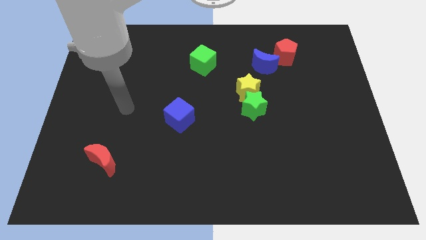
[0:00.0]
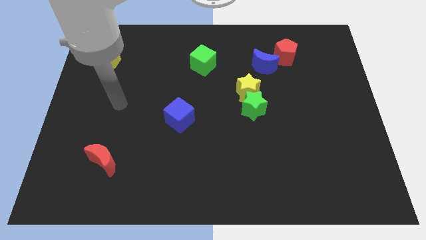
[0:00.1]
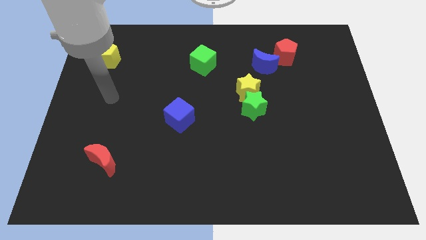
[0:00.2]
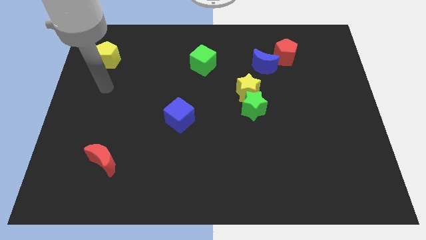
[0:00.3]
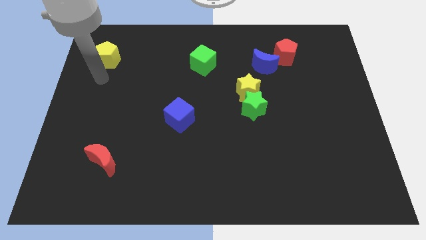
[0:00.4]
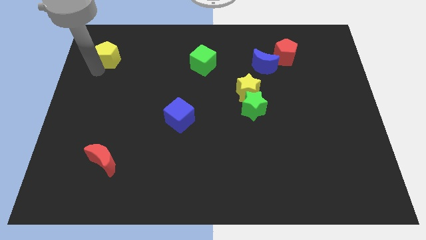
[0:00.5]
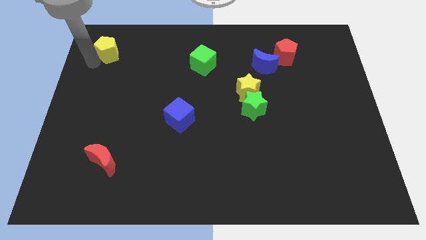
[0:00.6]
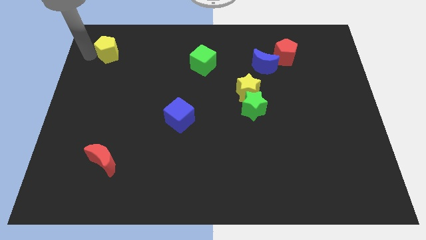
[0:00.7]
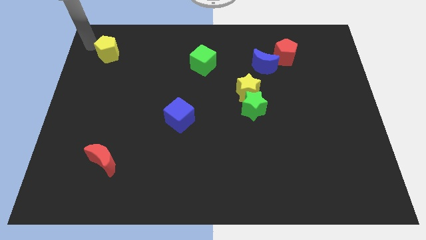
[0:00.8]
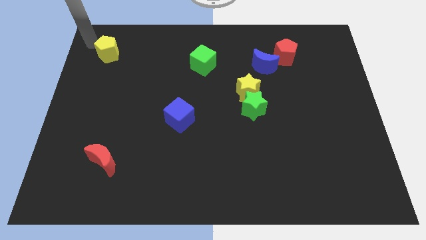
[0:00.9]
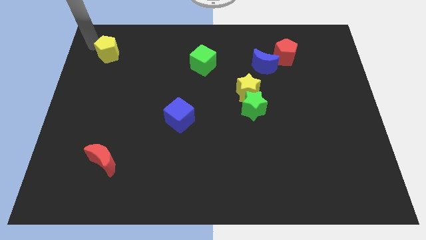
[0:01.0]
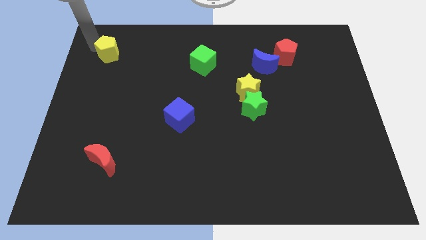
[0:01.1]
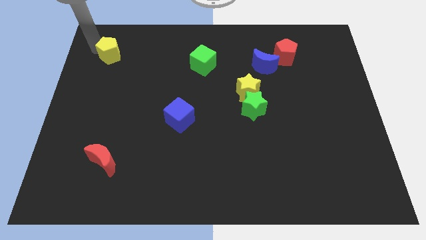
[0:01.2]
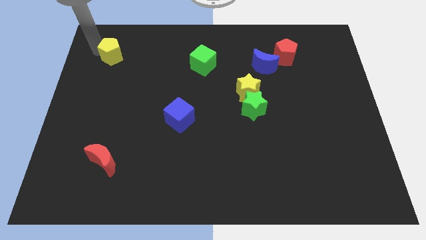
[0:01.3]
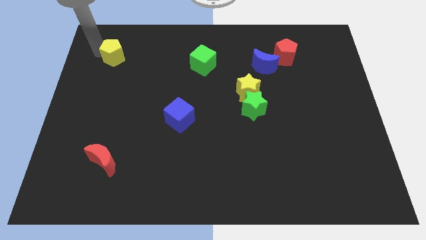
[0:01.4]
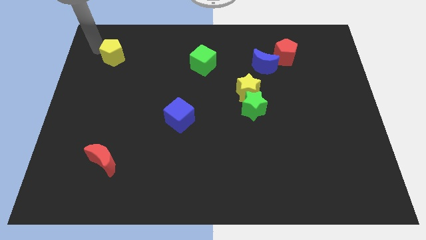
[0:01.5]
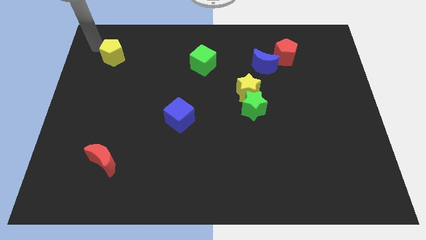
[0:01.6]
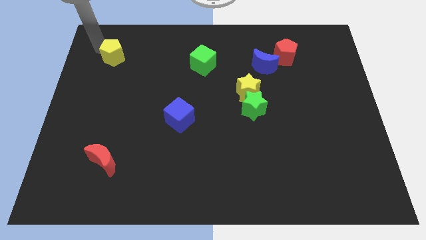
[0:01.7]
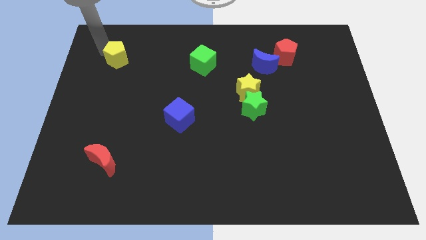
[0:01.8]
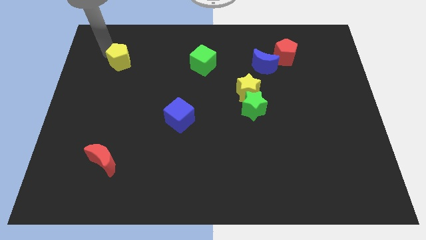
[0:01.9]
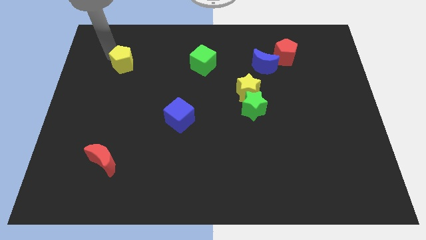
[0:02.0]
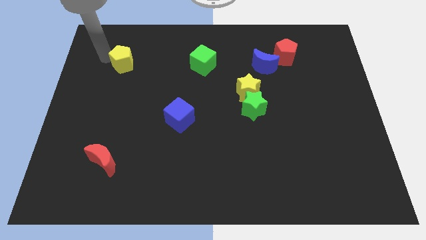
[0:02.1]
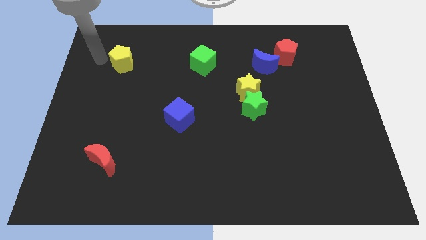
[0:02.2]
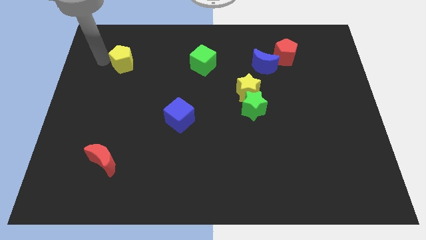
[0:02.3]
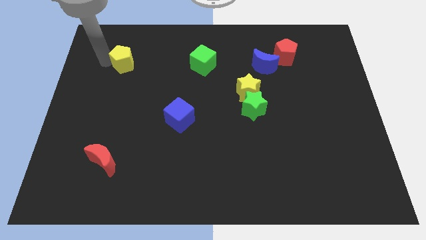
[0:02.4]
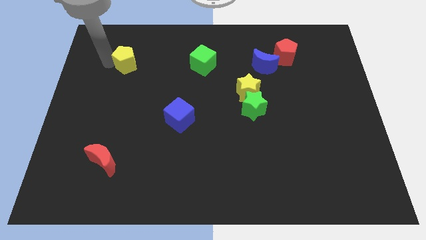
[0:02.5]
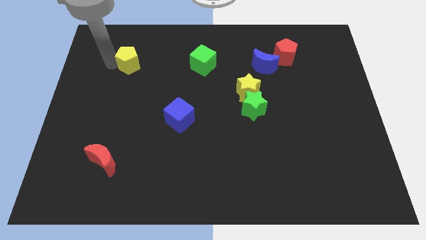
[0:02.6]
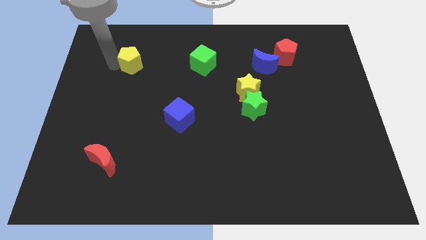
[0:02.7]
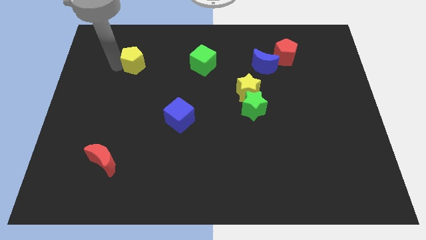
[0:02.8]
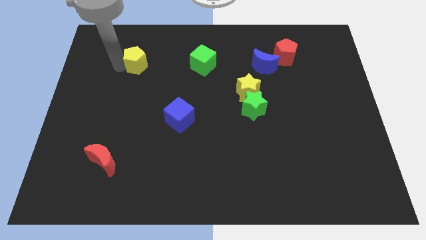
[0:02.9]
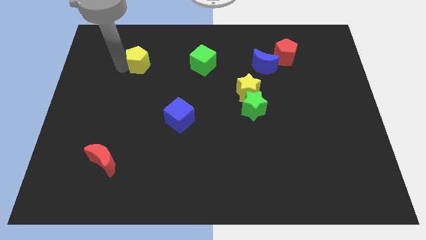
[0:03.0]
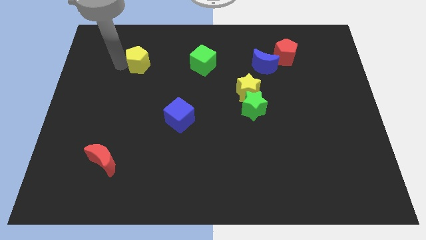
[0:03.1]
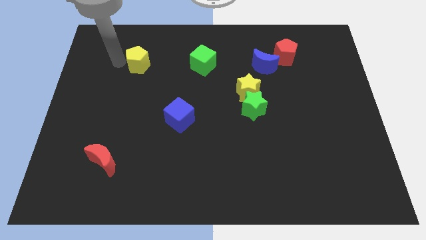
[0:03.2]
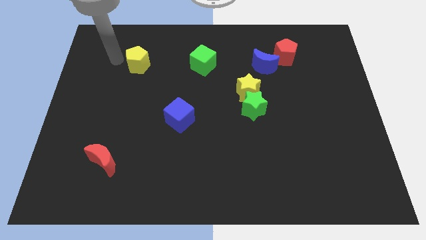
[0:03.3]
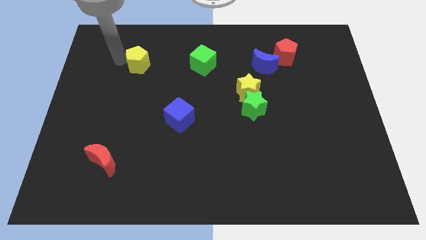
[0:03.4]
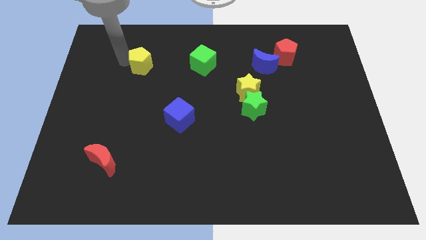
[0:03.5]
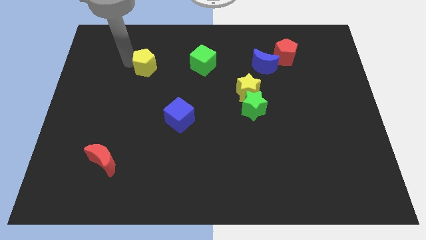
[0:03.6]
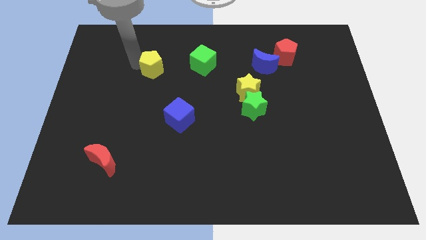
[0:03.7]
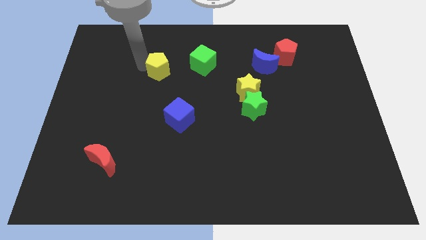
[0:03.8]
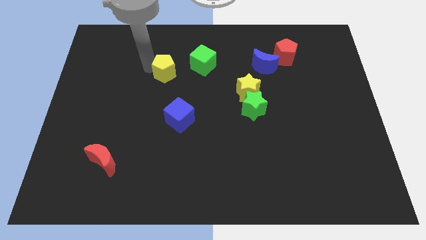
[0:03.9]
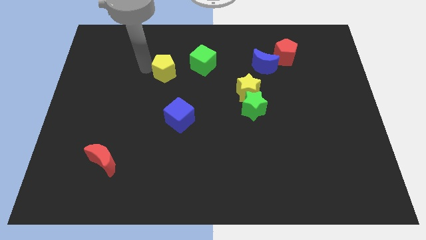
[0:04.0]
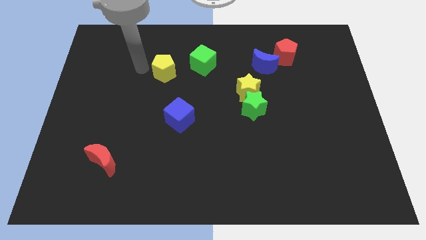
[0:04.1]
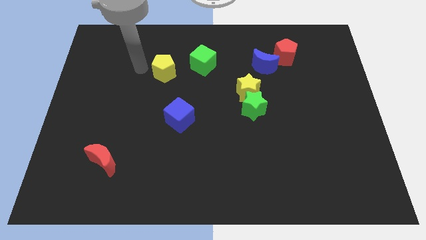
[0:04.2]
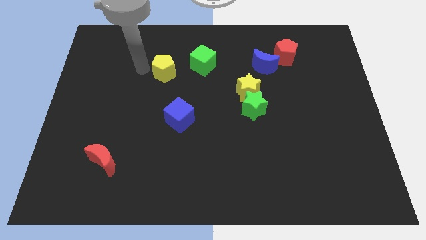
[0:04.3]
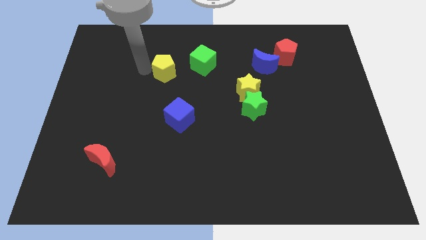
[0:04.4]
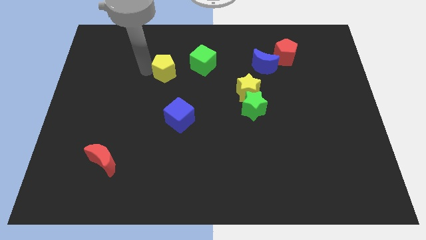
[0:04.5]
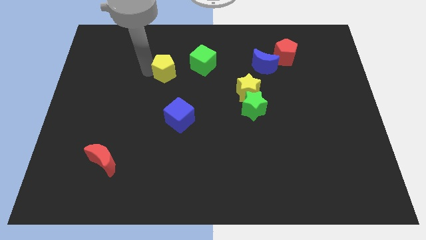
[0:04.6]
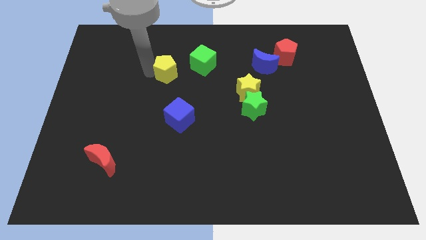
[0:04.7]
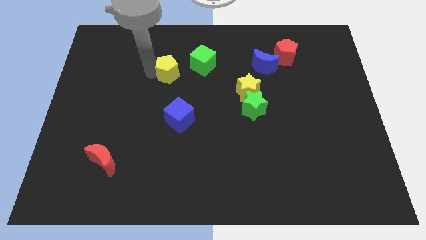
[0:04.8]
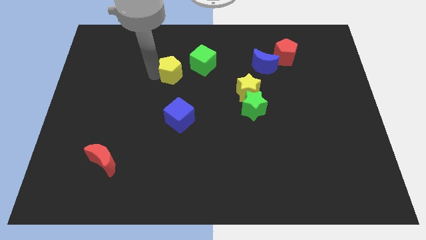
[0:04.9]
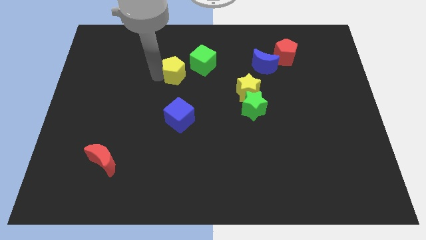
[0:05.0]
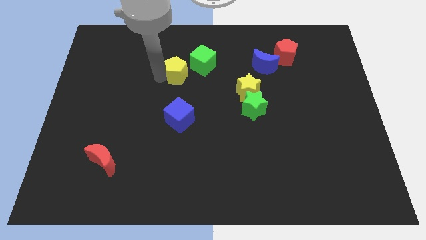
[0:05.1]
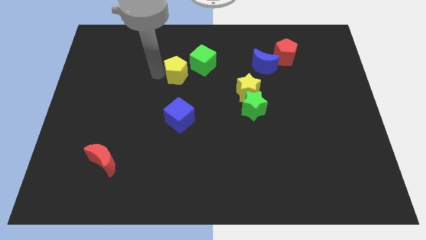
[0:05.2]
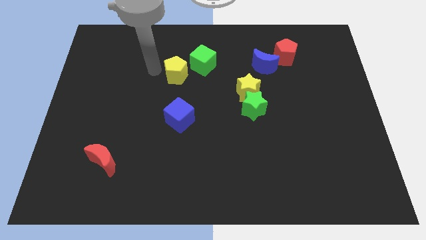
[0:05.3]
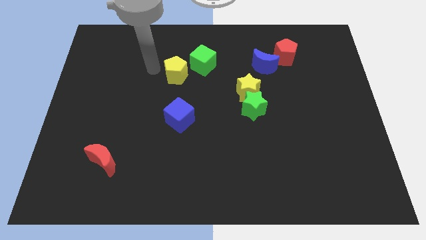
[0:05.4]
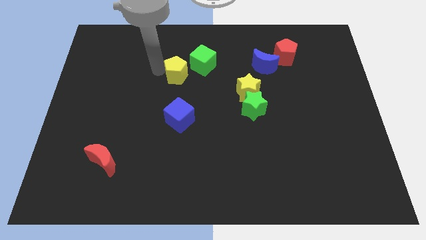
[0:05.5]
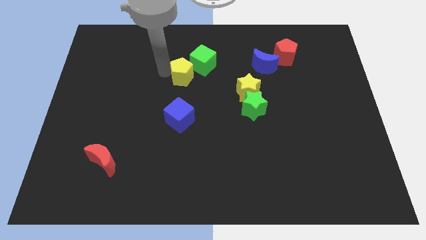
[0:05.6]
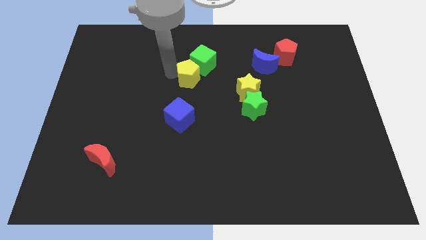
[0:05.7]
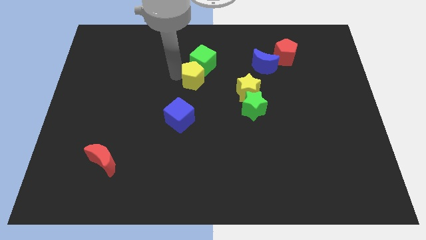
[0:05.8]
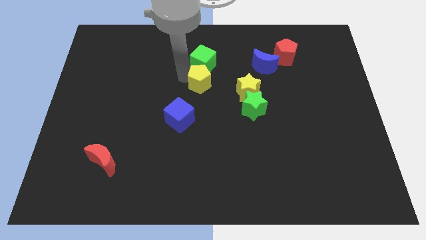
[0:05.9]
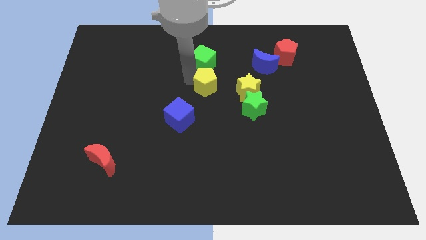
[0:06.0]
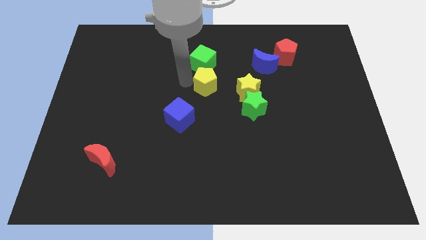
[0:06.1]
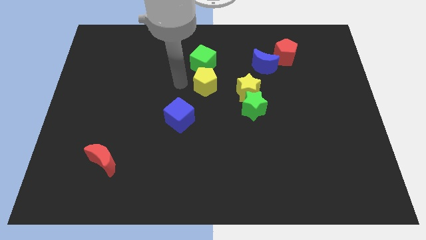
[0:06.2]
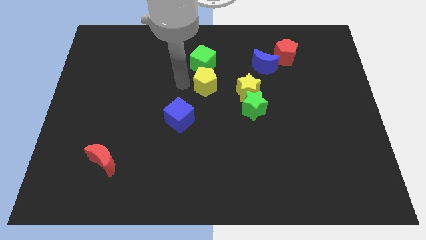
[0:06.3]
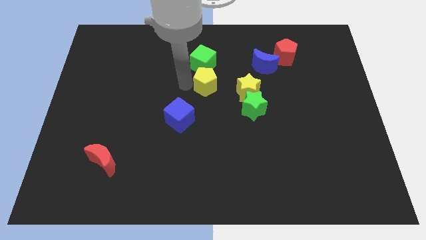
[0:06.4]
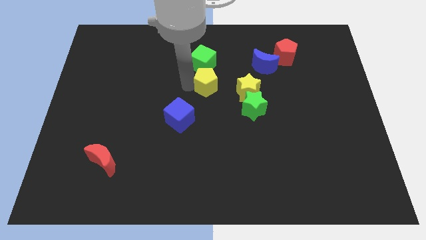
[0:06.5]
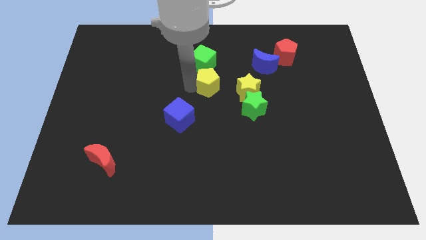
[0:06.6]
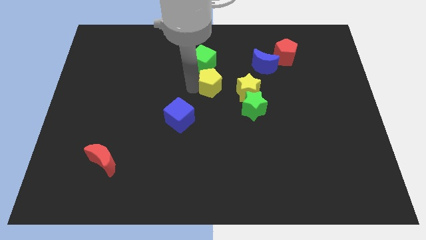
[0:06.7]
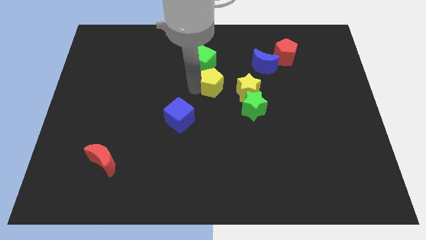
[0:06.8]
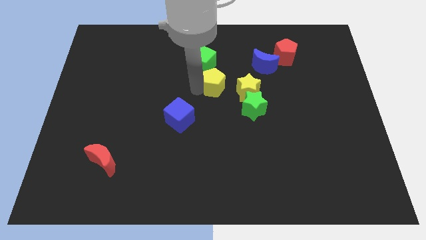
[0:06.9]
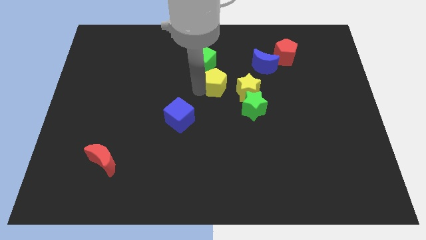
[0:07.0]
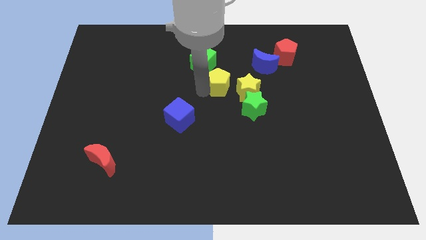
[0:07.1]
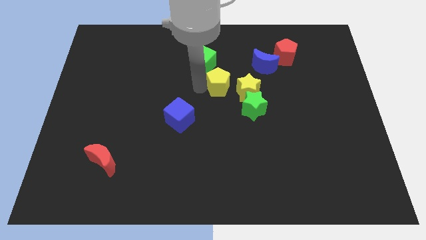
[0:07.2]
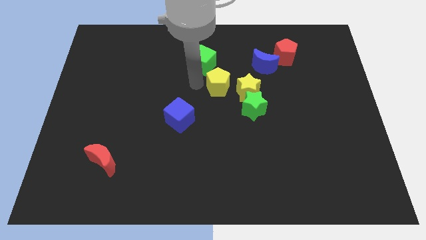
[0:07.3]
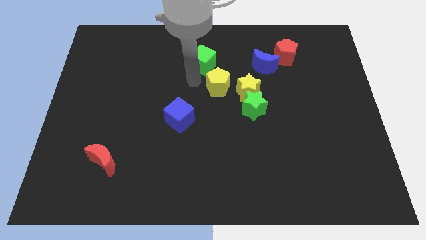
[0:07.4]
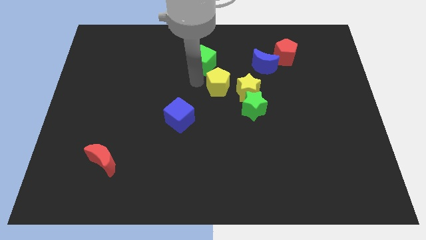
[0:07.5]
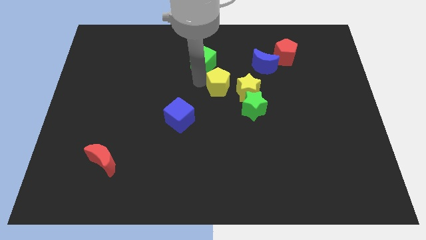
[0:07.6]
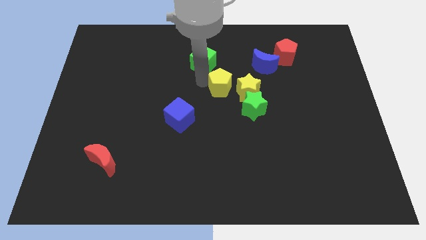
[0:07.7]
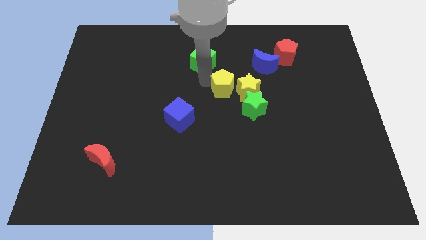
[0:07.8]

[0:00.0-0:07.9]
push the yellow pentagon to the yellow star
